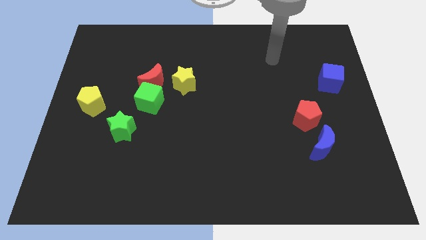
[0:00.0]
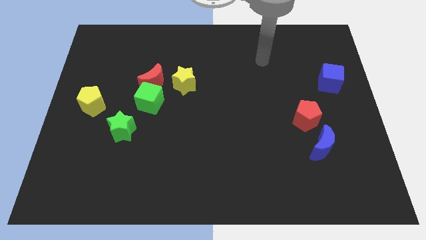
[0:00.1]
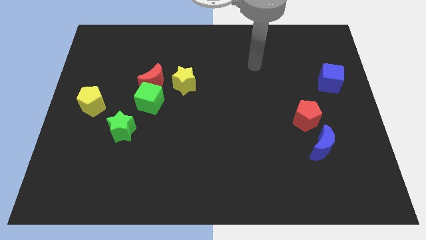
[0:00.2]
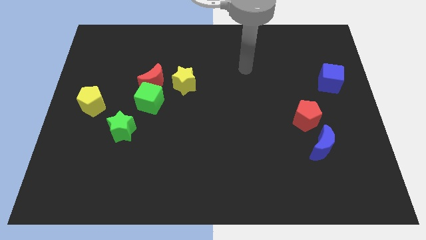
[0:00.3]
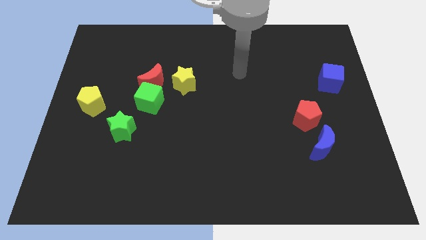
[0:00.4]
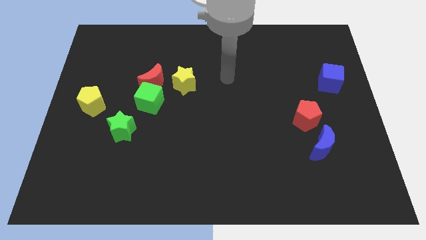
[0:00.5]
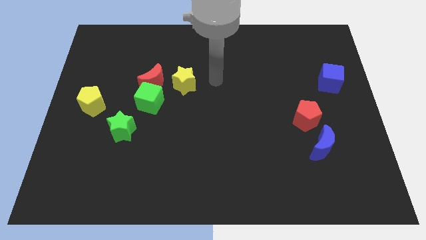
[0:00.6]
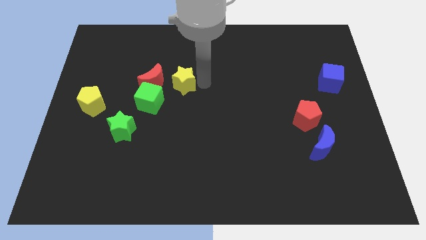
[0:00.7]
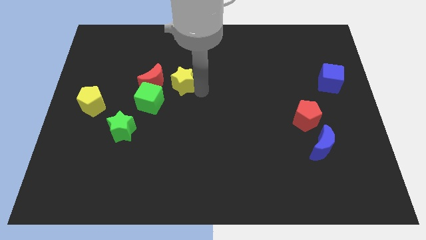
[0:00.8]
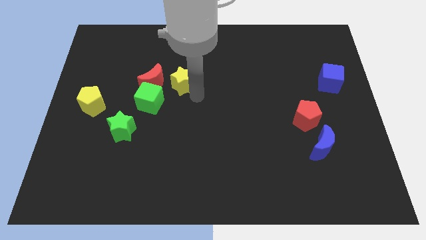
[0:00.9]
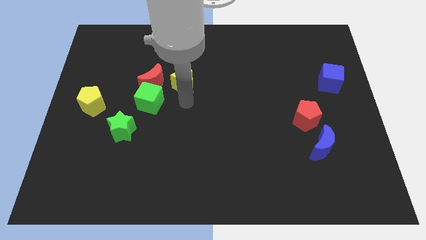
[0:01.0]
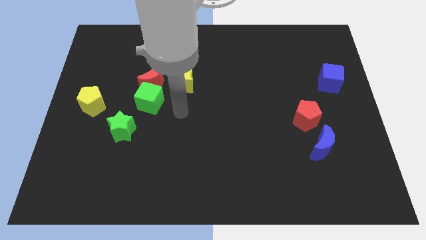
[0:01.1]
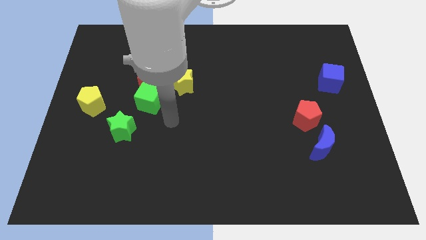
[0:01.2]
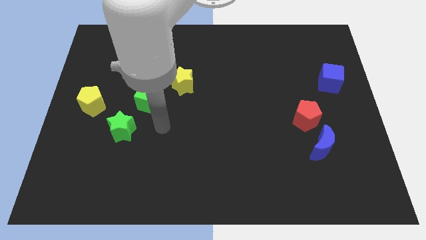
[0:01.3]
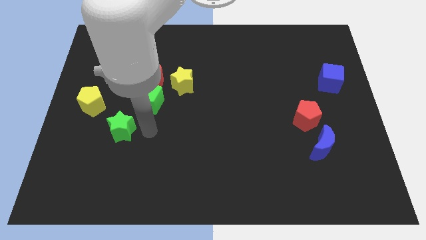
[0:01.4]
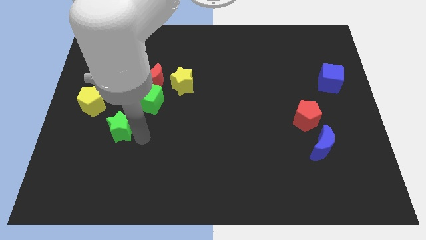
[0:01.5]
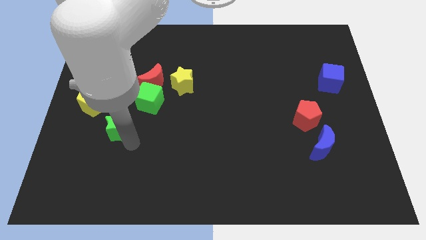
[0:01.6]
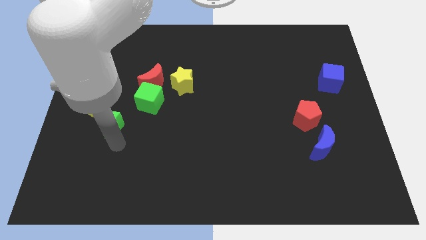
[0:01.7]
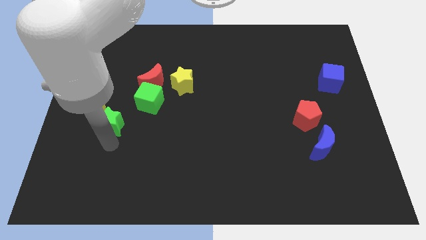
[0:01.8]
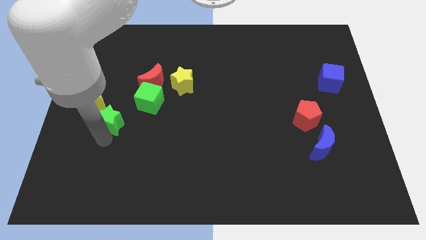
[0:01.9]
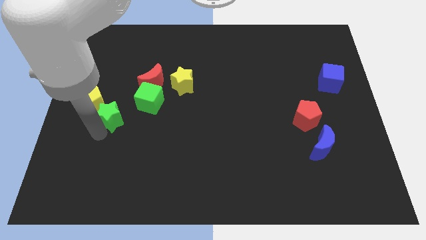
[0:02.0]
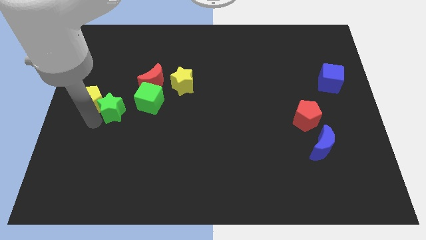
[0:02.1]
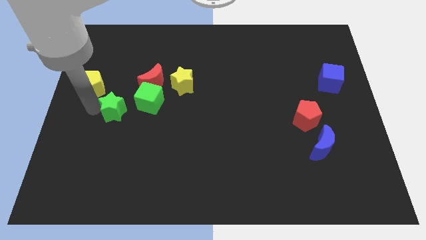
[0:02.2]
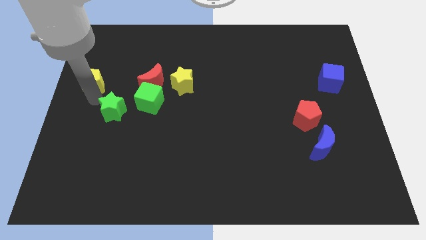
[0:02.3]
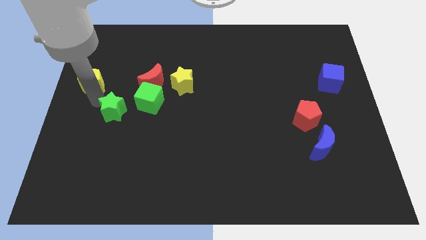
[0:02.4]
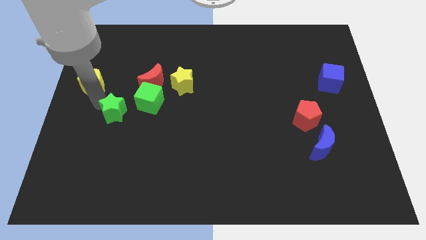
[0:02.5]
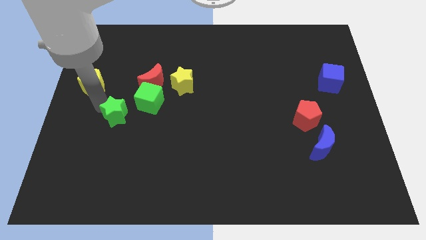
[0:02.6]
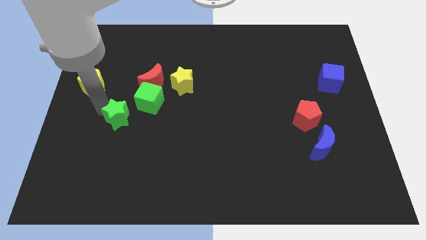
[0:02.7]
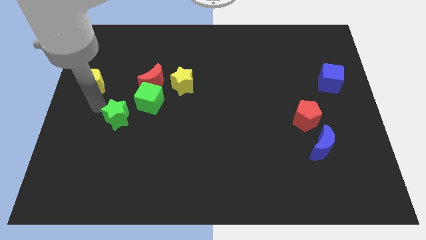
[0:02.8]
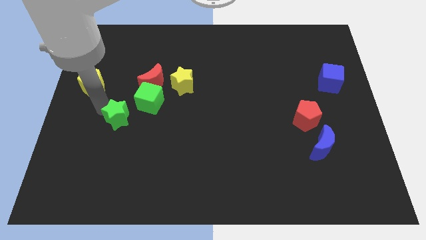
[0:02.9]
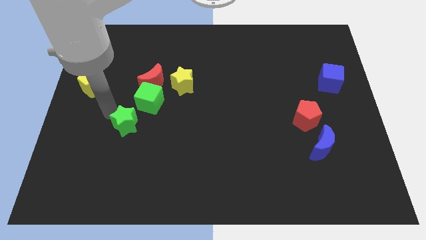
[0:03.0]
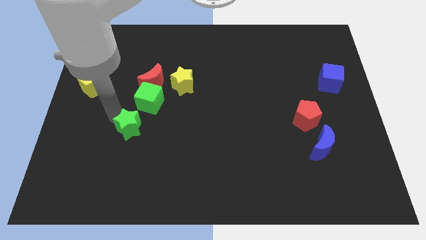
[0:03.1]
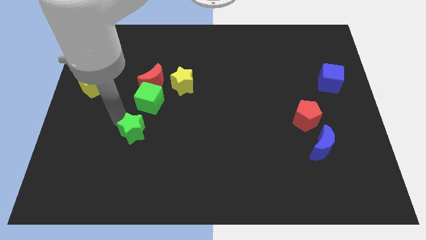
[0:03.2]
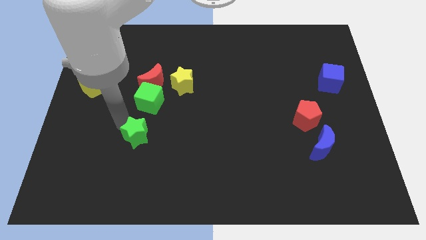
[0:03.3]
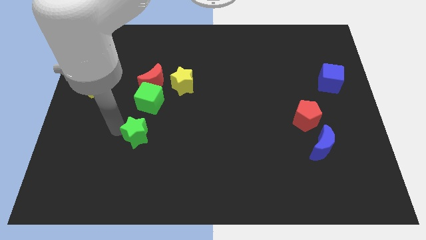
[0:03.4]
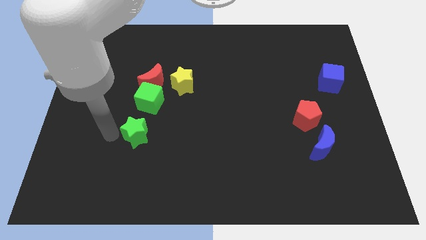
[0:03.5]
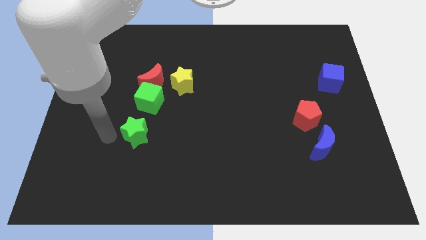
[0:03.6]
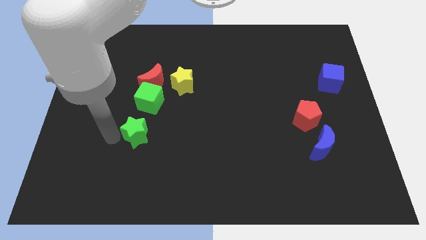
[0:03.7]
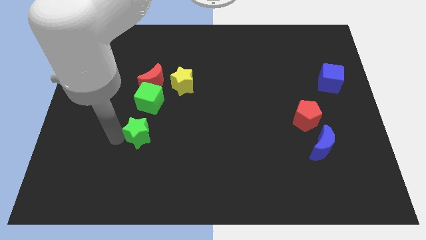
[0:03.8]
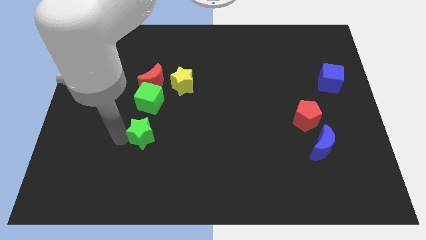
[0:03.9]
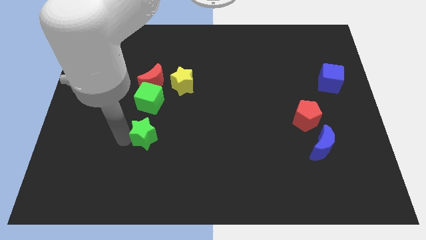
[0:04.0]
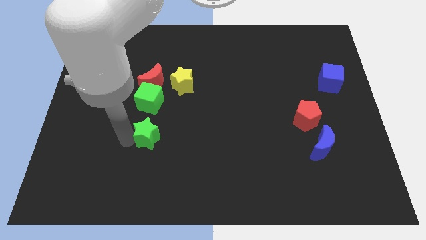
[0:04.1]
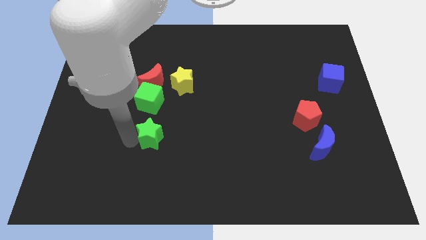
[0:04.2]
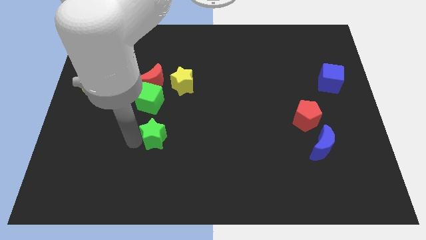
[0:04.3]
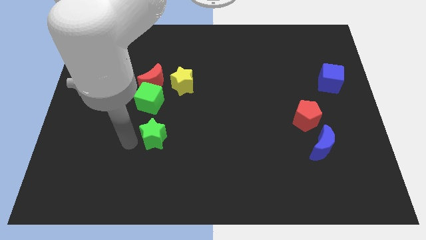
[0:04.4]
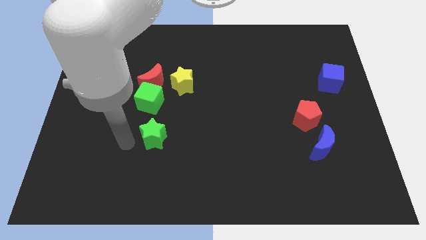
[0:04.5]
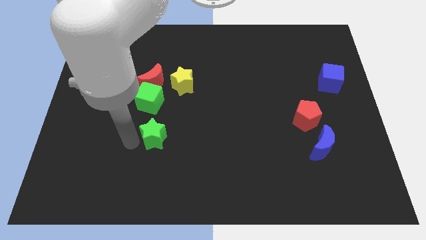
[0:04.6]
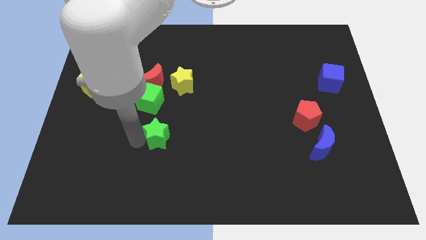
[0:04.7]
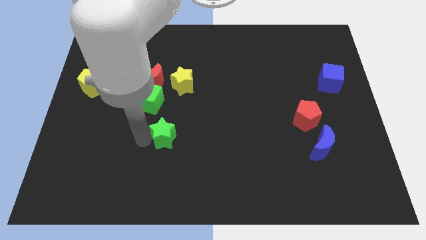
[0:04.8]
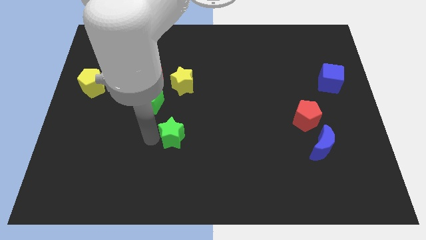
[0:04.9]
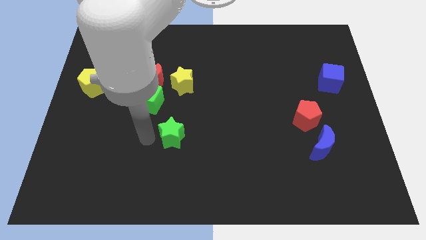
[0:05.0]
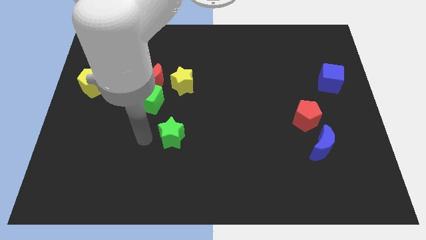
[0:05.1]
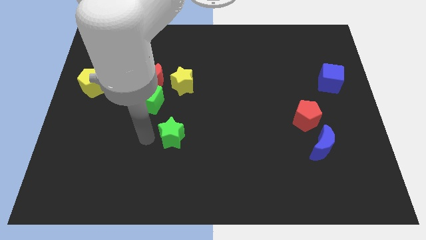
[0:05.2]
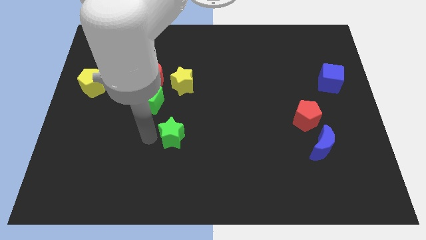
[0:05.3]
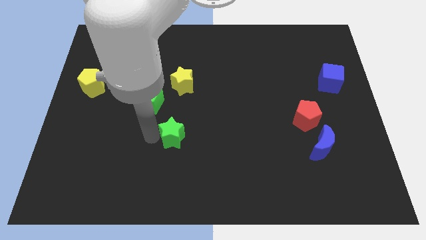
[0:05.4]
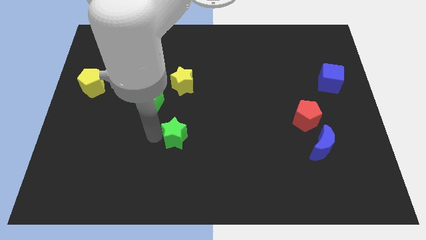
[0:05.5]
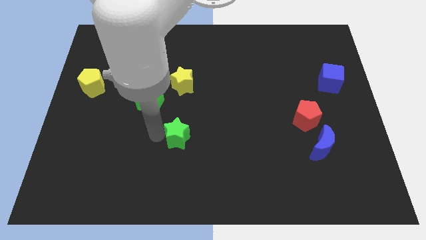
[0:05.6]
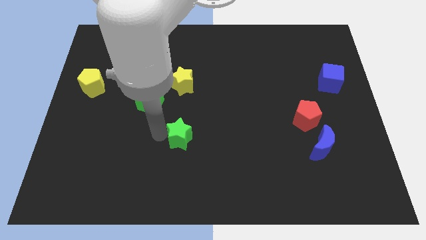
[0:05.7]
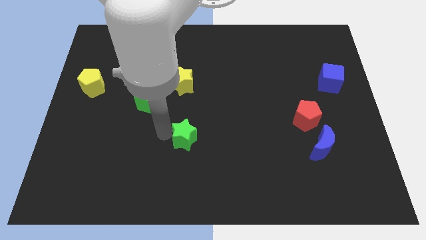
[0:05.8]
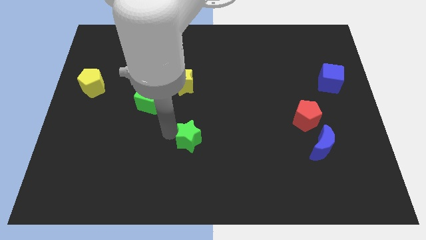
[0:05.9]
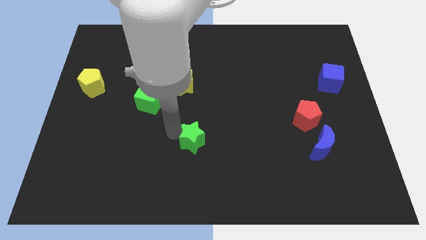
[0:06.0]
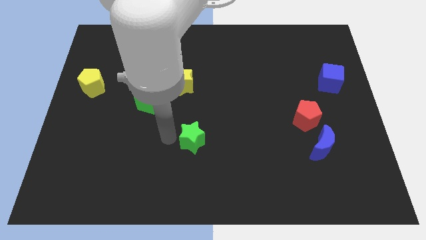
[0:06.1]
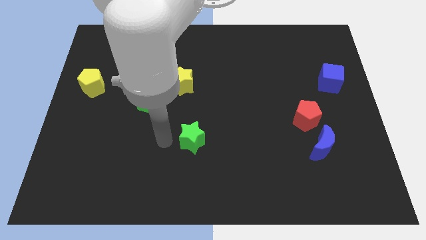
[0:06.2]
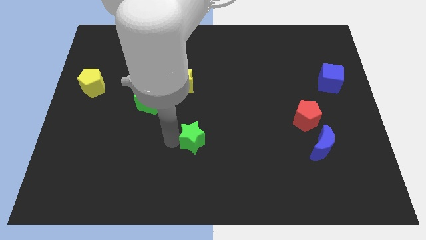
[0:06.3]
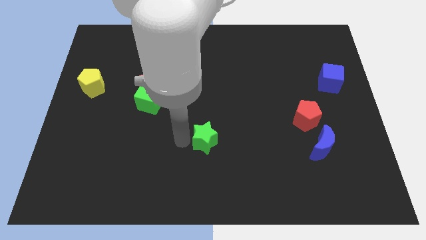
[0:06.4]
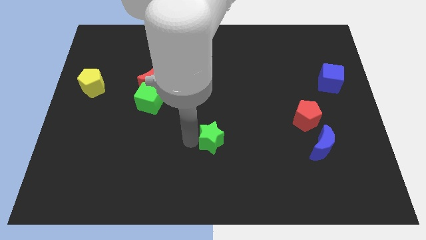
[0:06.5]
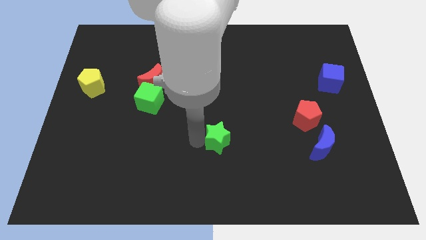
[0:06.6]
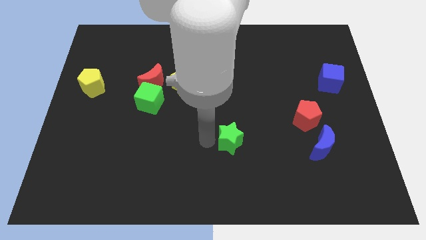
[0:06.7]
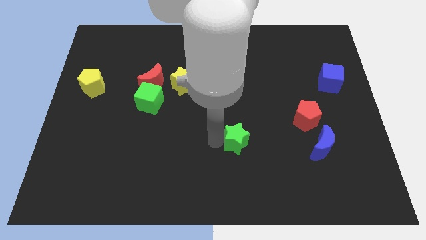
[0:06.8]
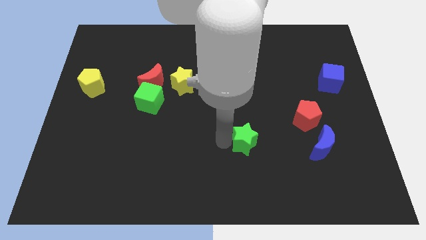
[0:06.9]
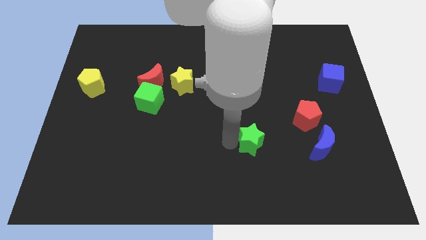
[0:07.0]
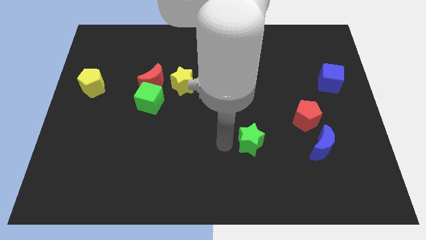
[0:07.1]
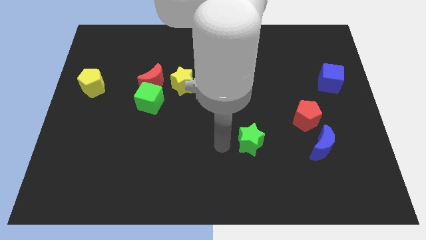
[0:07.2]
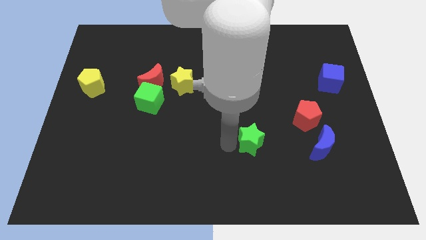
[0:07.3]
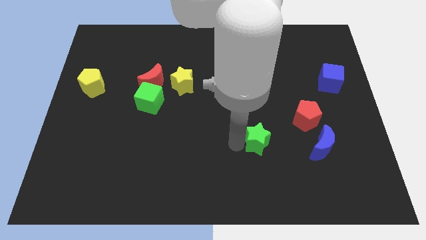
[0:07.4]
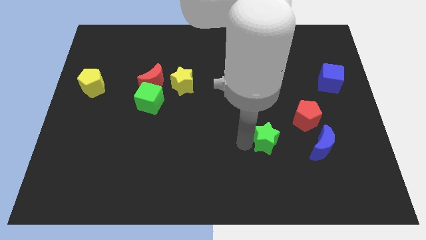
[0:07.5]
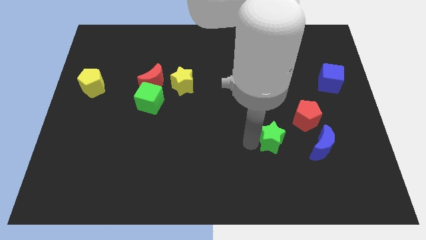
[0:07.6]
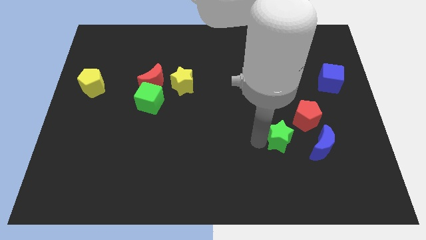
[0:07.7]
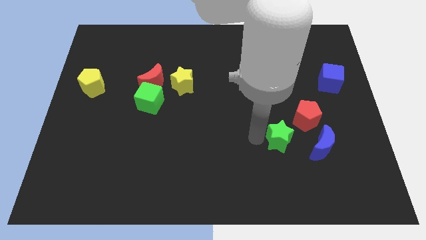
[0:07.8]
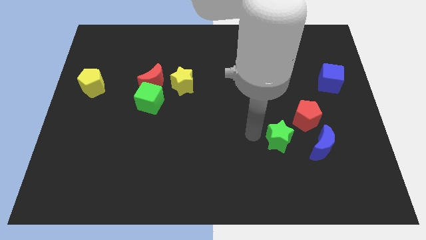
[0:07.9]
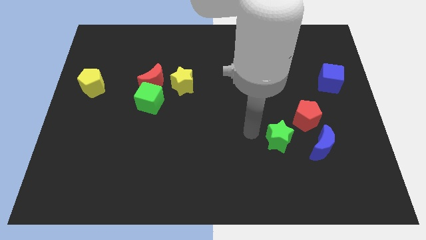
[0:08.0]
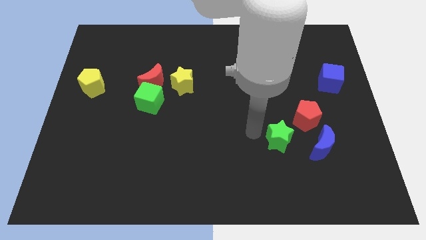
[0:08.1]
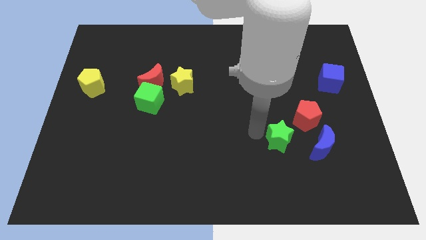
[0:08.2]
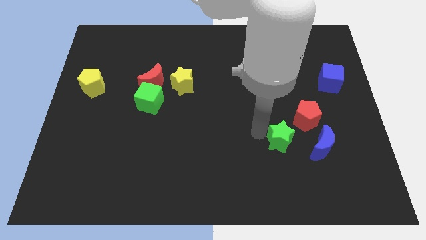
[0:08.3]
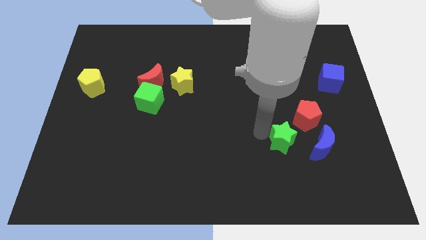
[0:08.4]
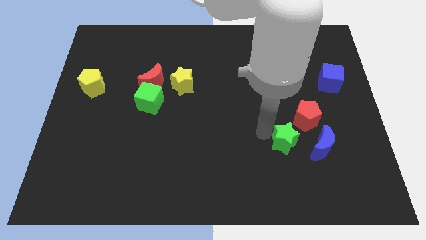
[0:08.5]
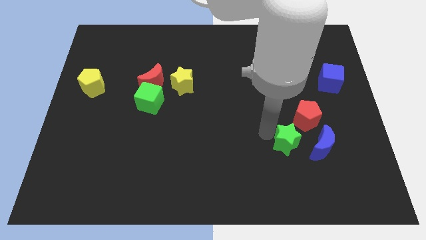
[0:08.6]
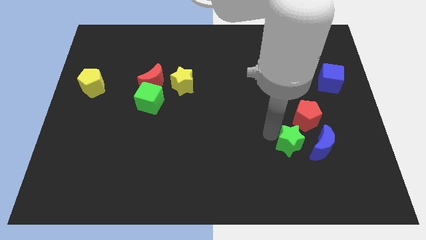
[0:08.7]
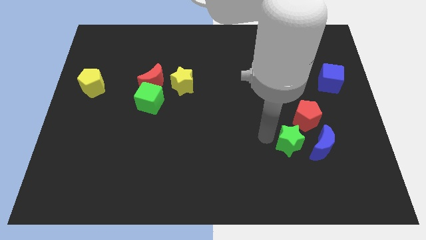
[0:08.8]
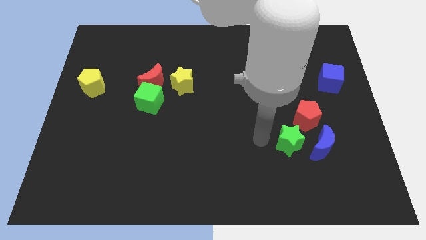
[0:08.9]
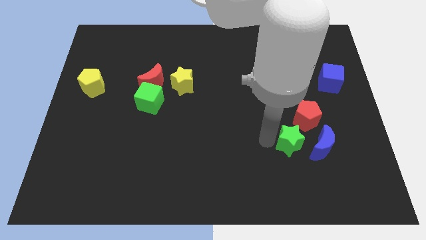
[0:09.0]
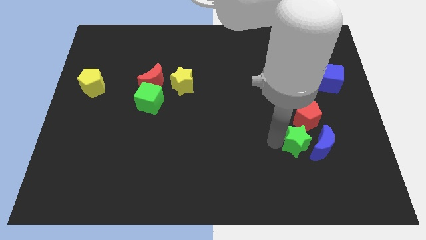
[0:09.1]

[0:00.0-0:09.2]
push the green star next to the blue moon
